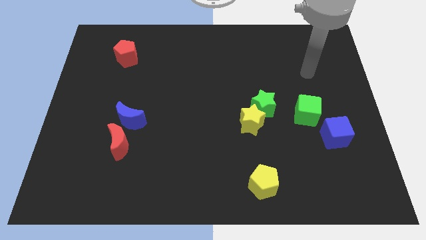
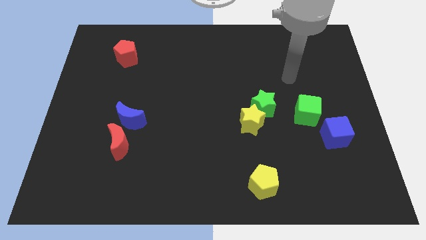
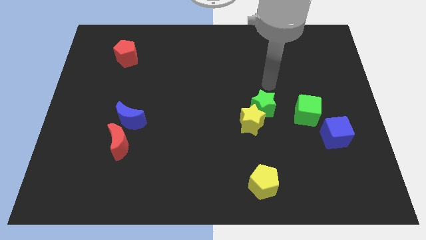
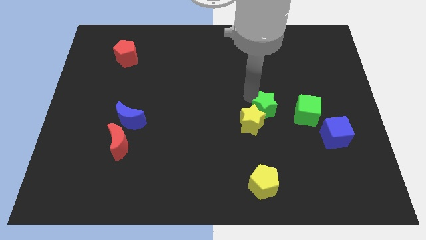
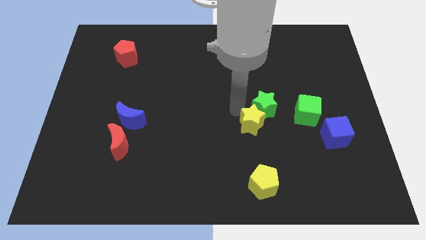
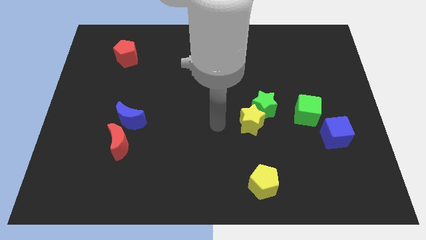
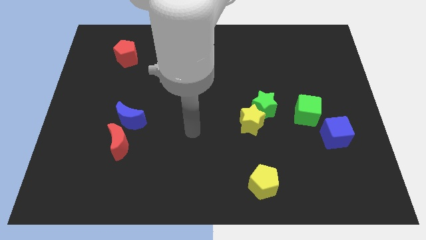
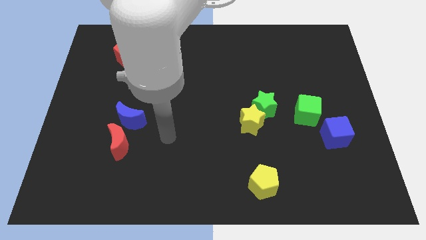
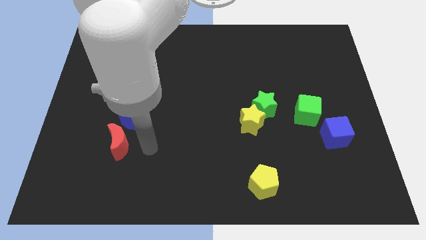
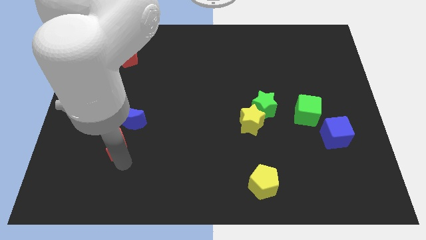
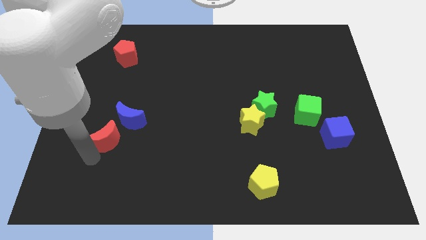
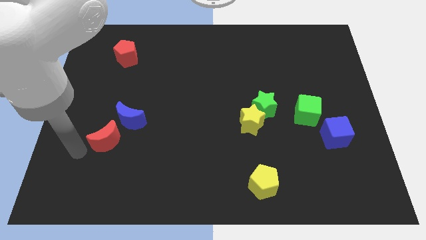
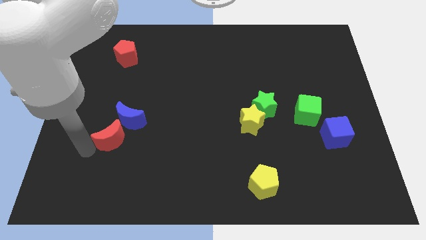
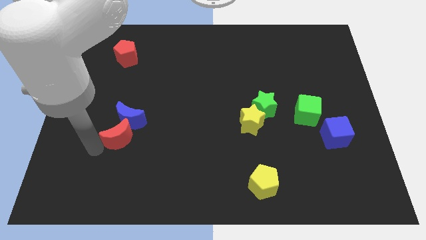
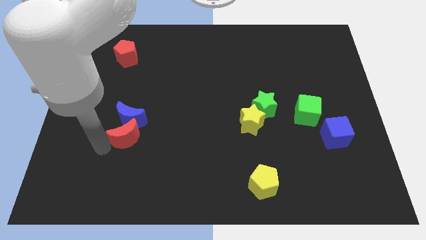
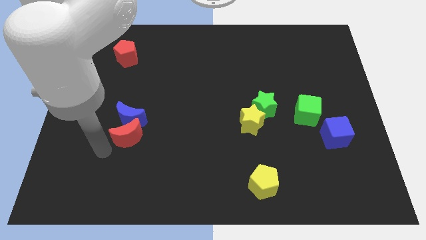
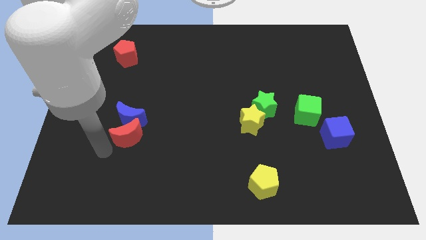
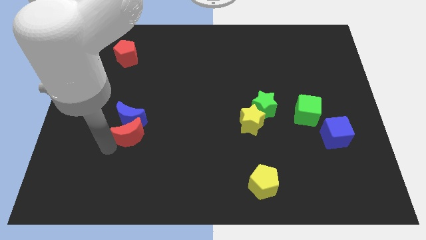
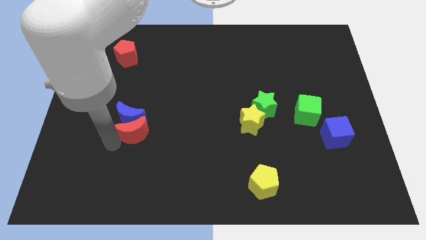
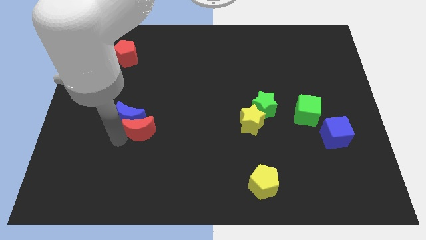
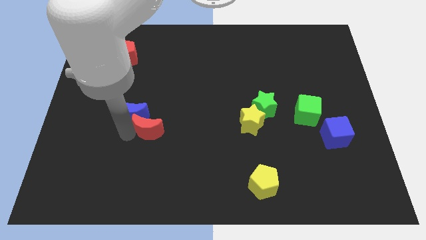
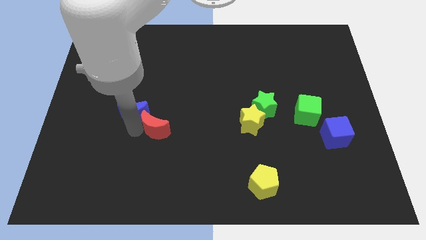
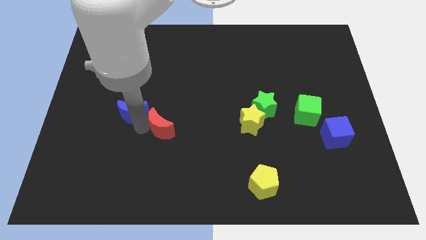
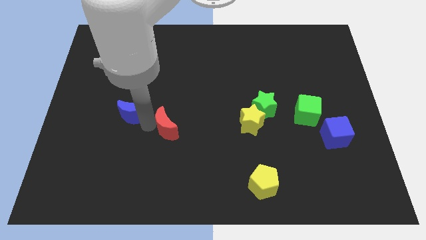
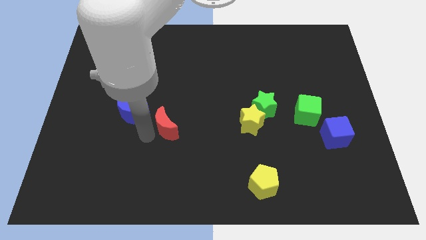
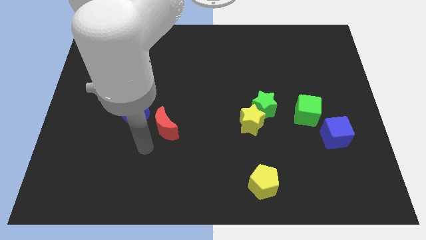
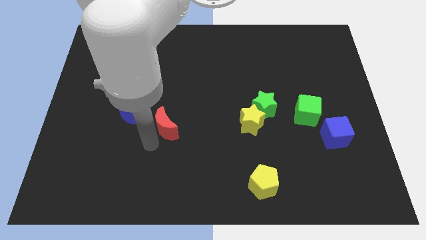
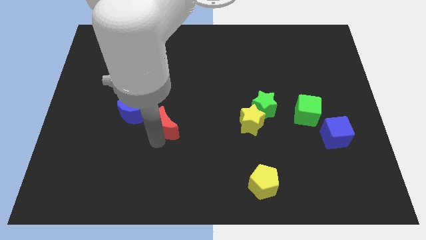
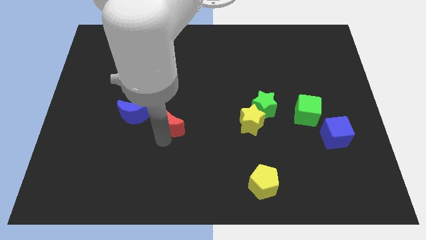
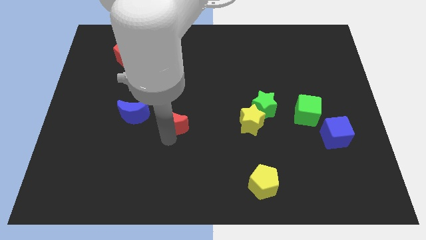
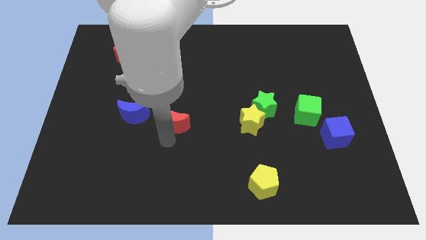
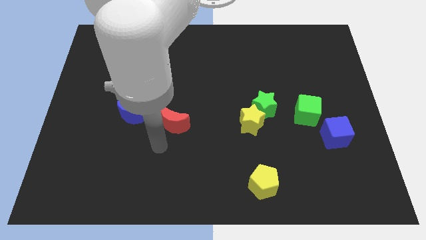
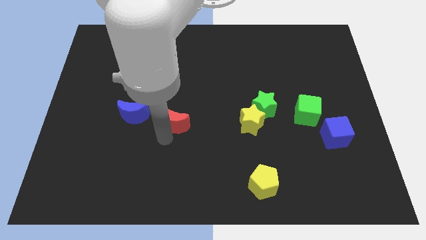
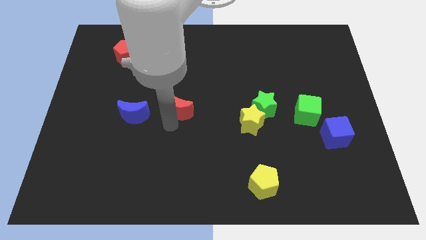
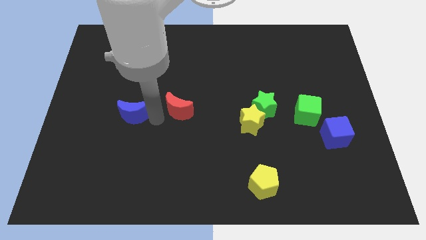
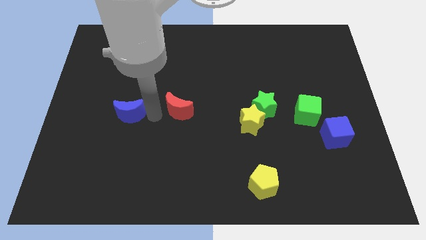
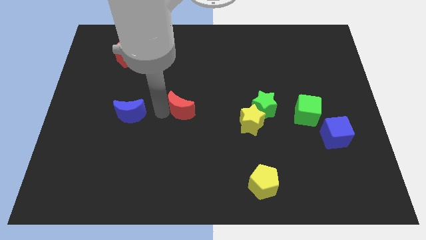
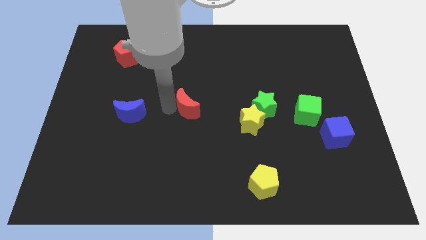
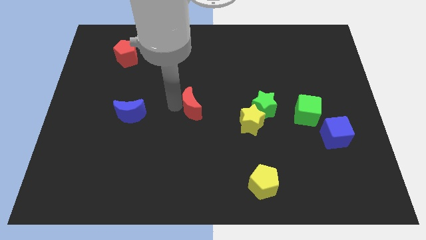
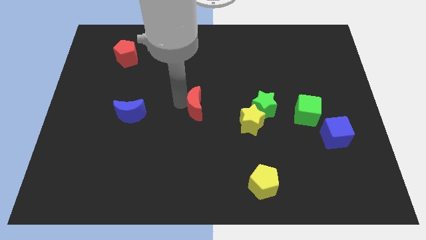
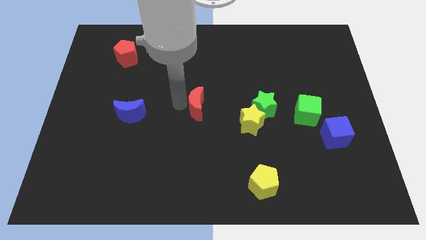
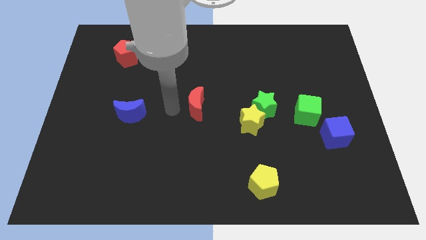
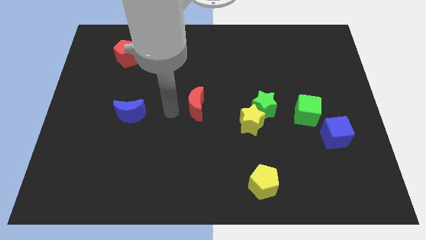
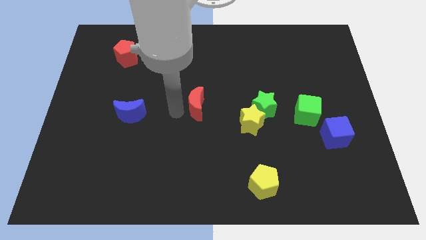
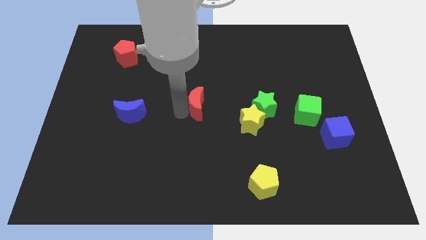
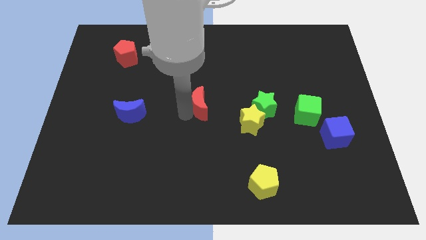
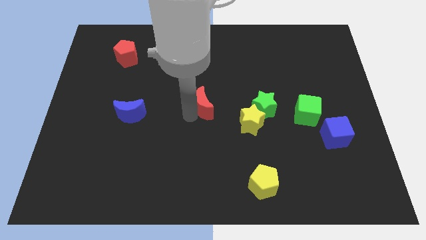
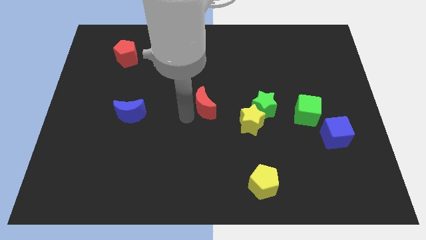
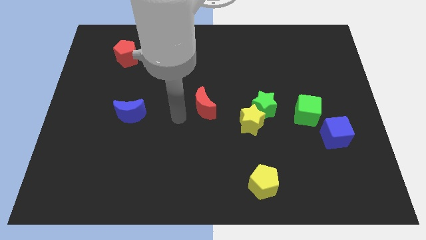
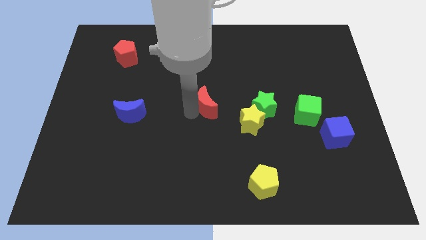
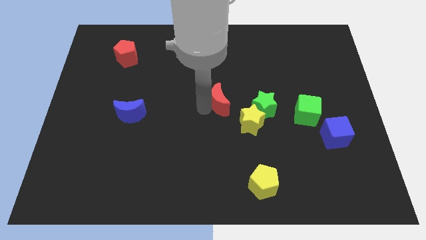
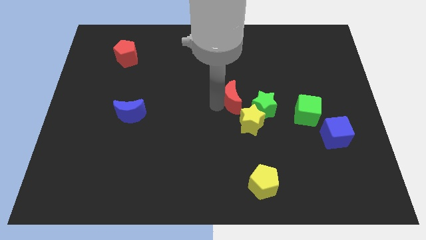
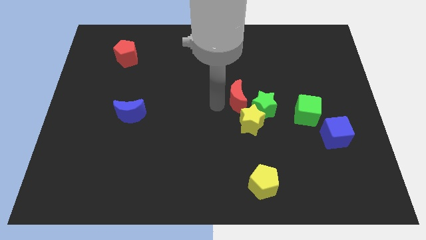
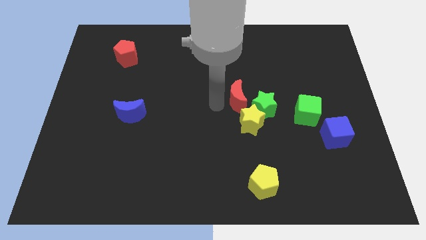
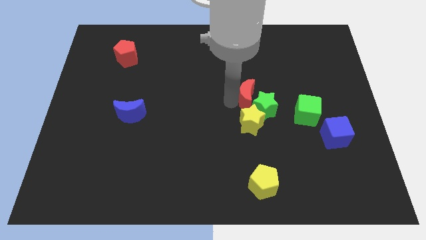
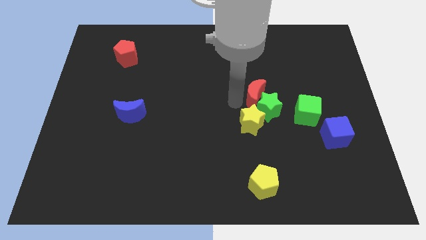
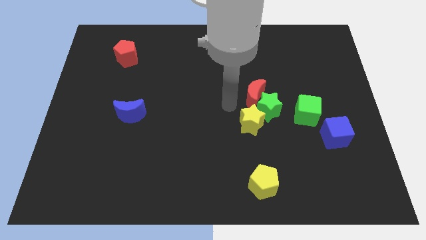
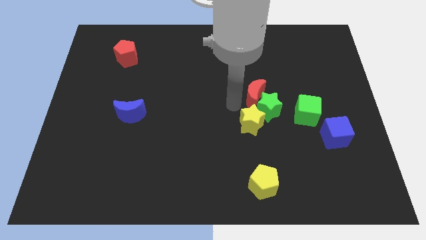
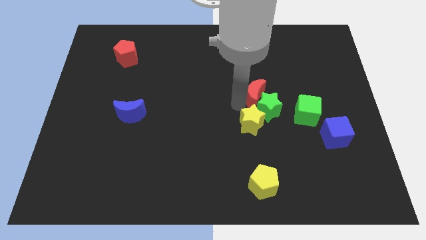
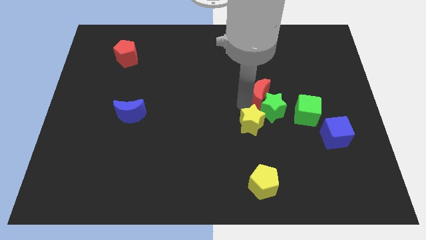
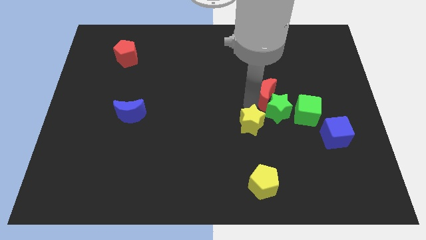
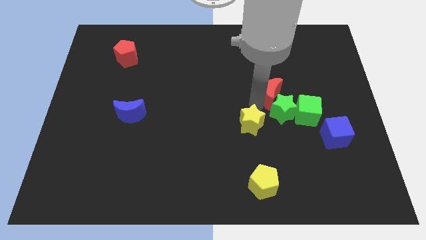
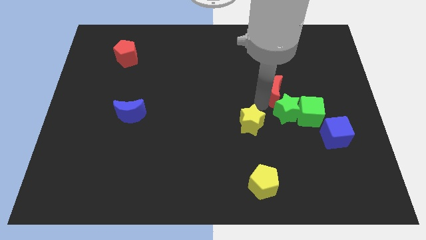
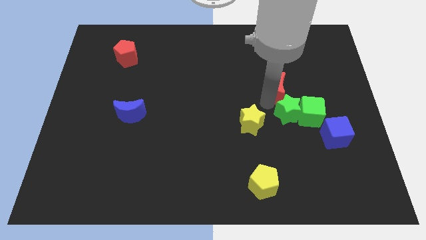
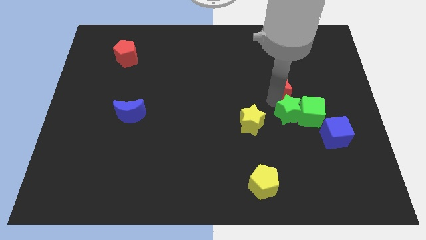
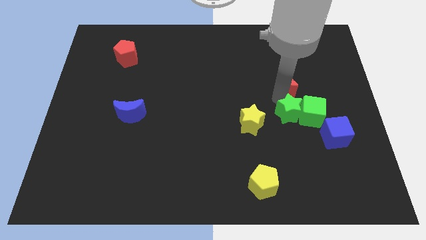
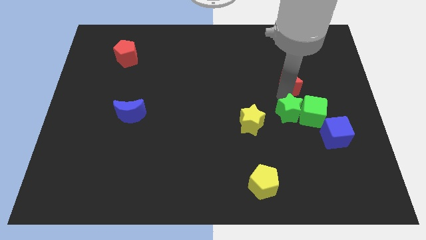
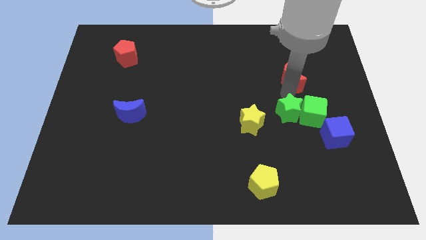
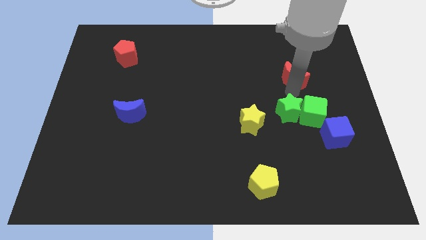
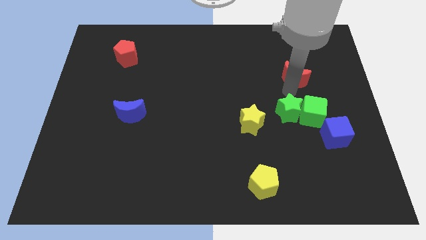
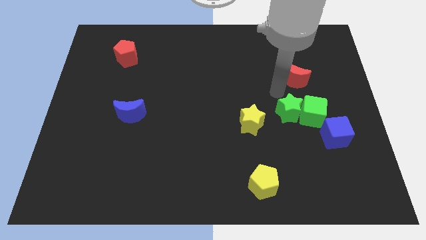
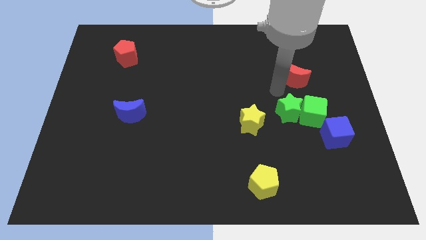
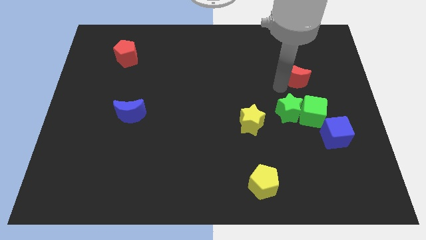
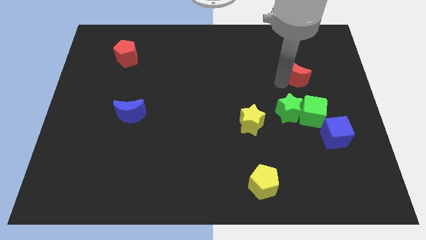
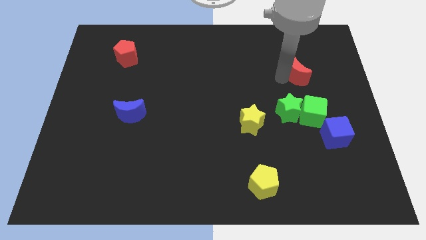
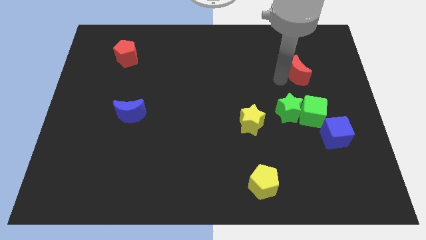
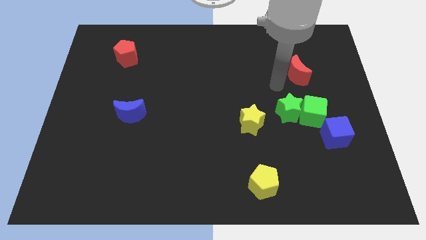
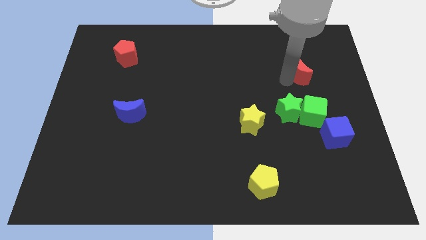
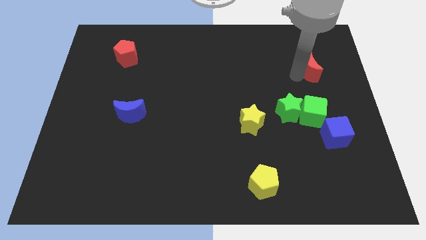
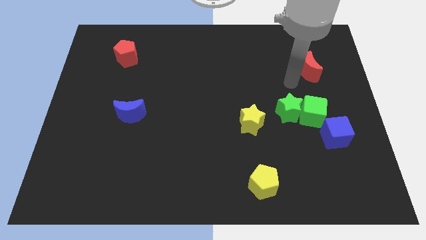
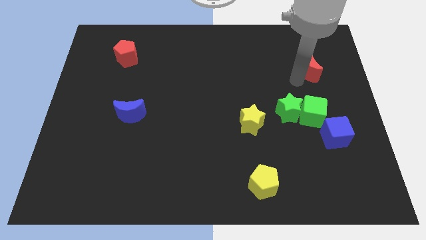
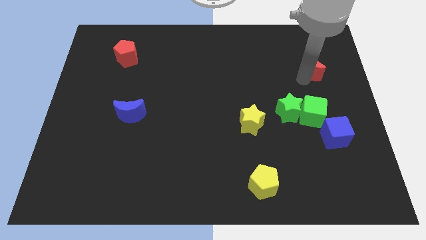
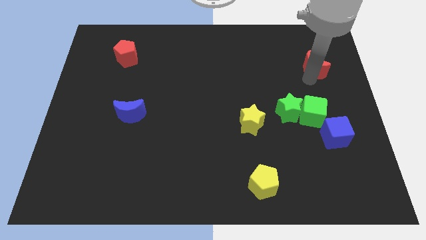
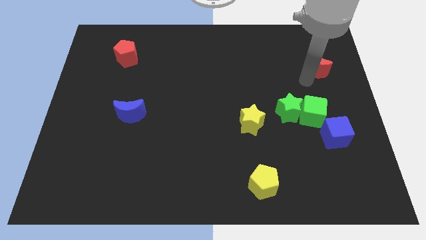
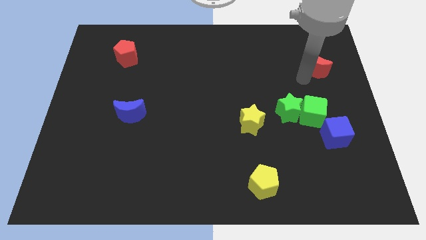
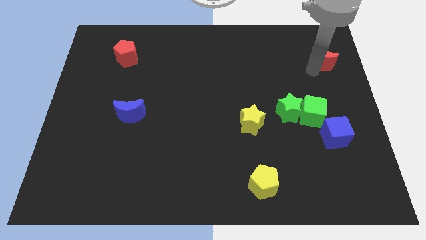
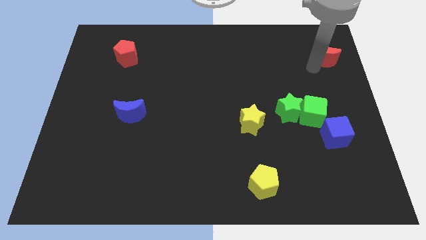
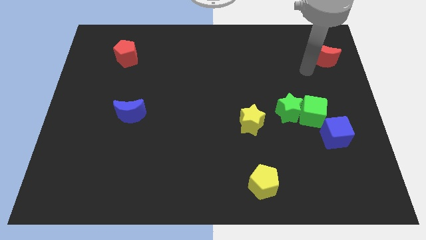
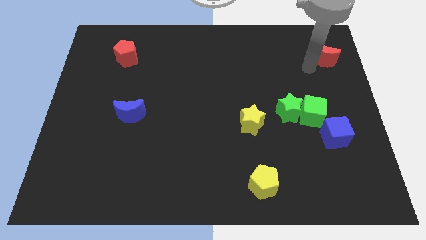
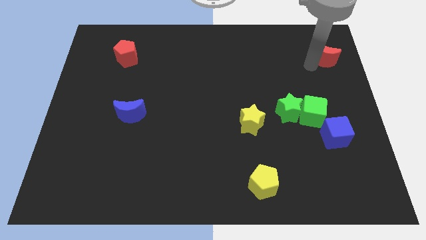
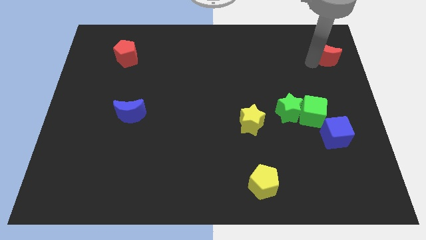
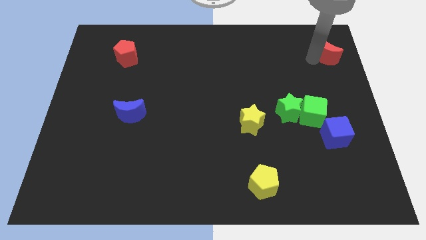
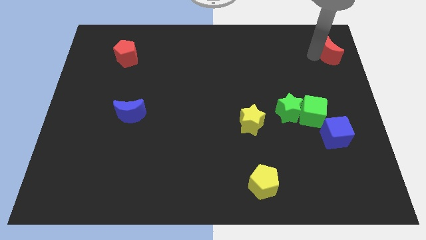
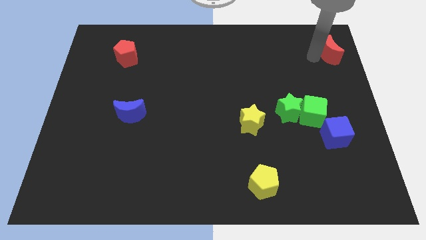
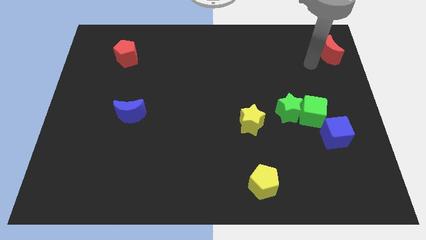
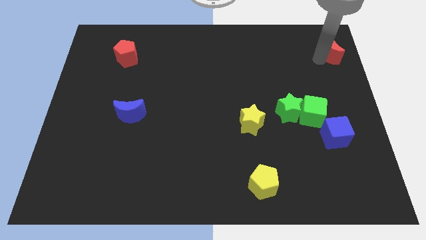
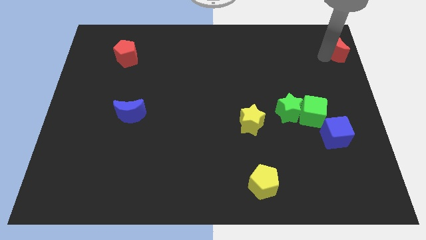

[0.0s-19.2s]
put the red moon to the top right of the board
